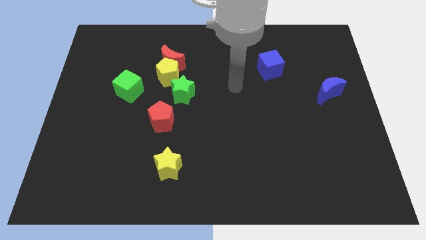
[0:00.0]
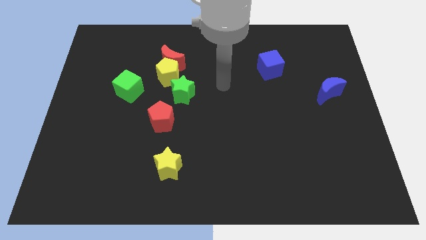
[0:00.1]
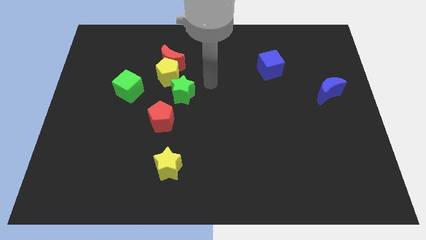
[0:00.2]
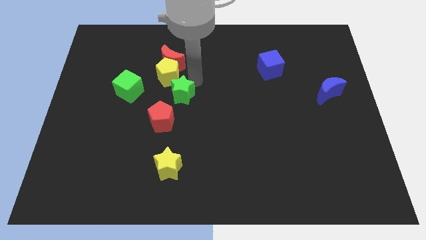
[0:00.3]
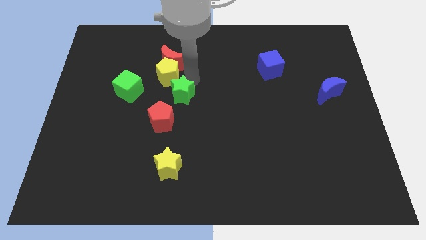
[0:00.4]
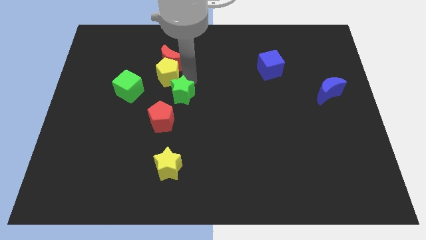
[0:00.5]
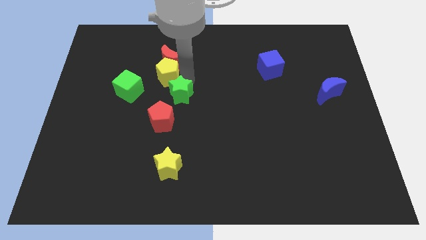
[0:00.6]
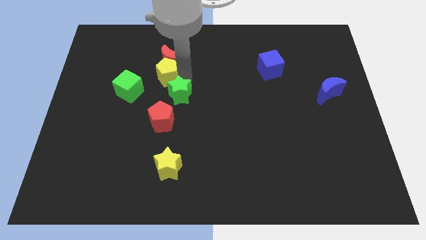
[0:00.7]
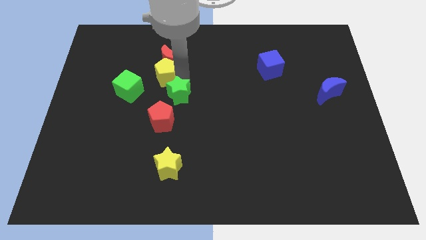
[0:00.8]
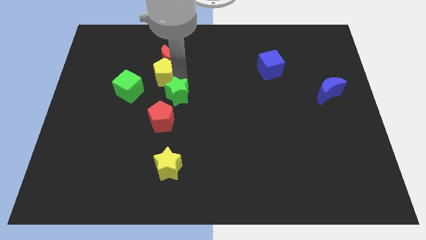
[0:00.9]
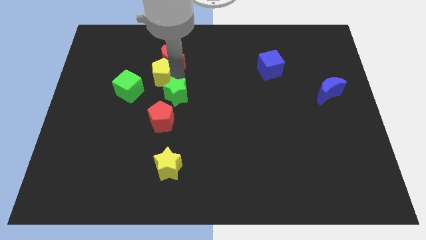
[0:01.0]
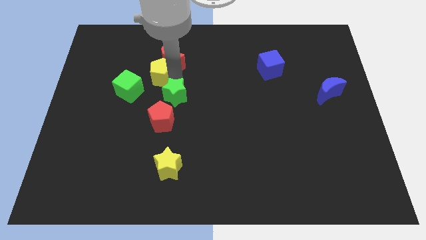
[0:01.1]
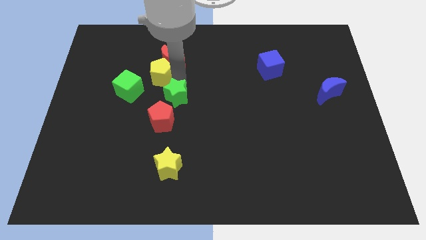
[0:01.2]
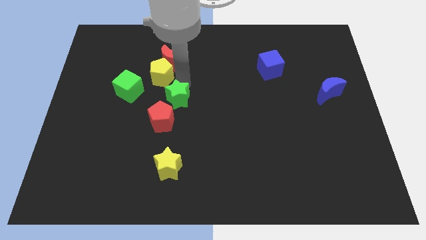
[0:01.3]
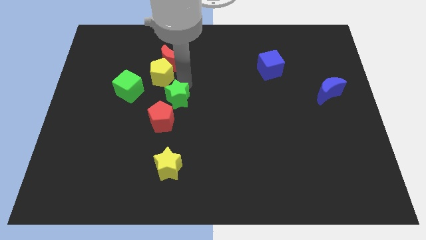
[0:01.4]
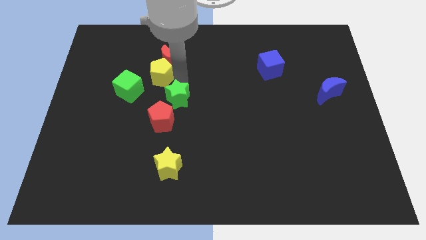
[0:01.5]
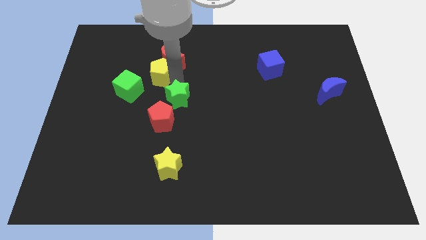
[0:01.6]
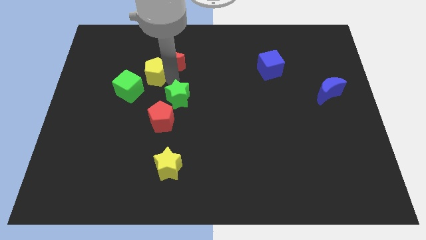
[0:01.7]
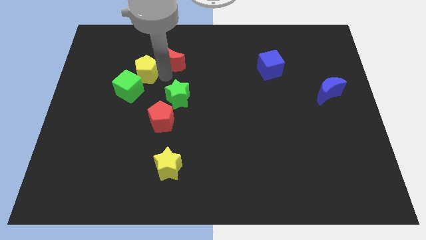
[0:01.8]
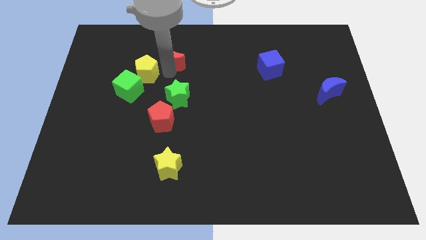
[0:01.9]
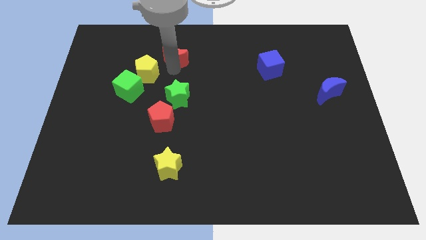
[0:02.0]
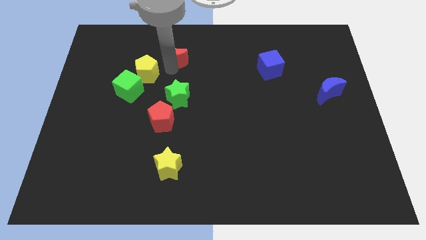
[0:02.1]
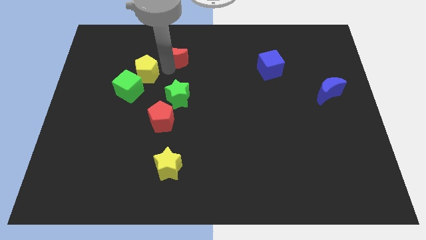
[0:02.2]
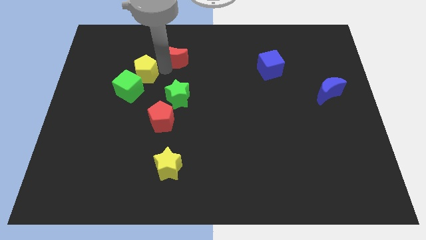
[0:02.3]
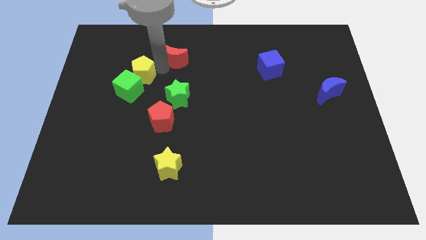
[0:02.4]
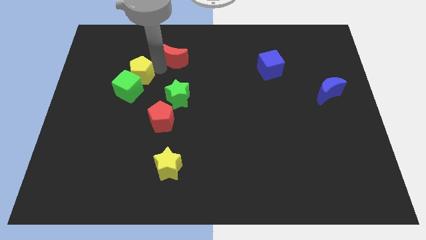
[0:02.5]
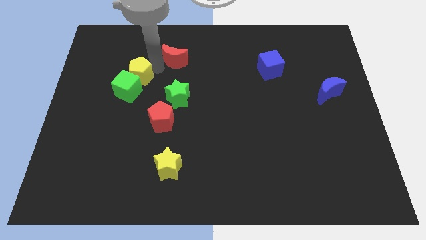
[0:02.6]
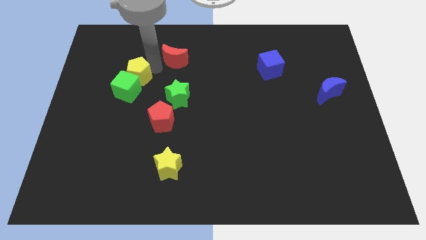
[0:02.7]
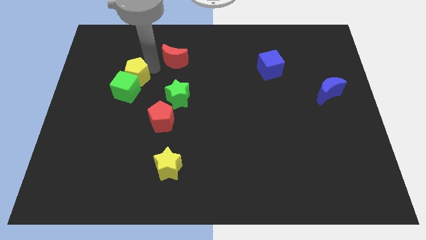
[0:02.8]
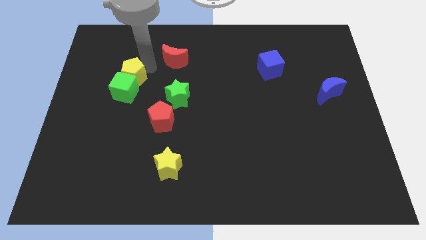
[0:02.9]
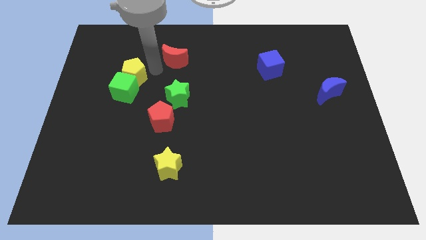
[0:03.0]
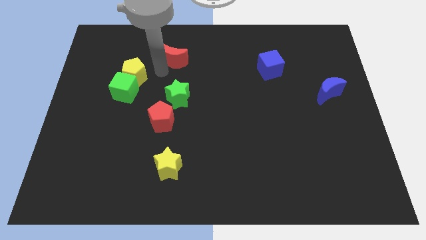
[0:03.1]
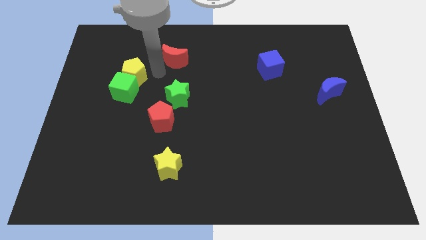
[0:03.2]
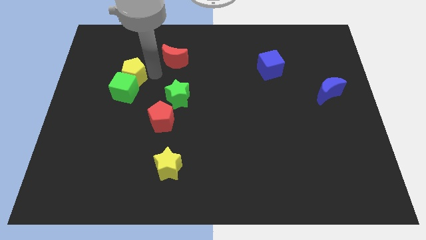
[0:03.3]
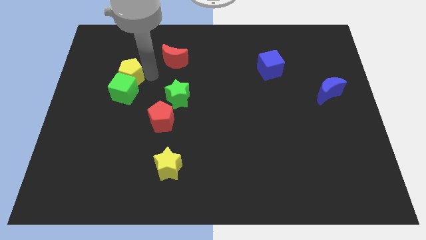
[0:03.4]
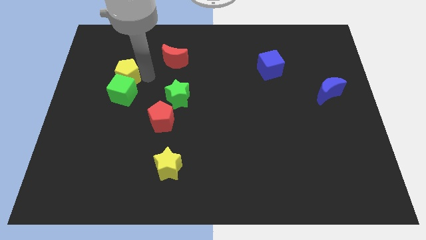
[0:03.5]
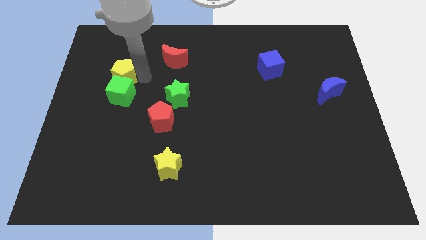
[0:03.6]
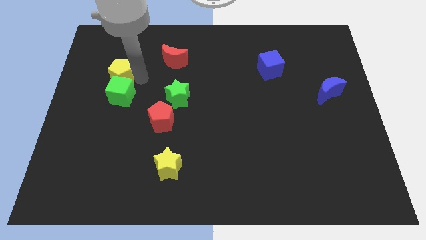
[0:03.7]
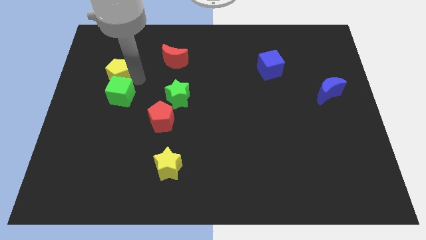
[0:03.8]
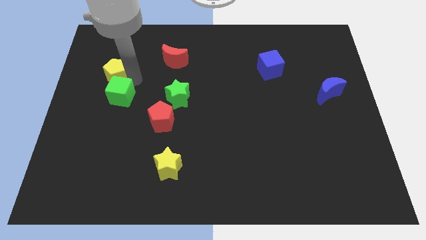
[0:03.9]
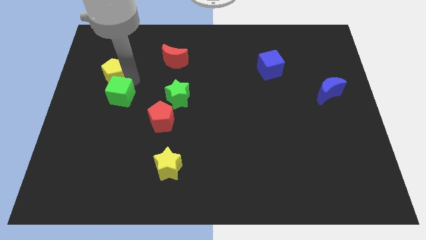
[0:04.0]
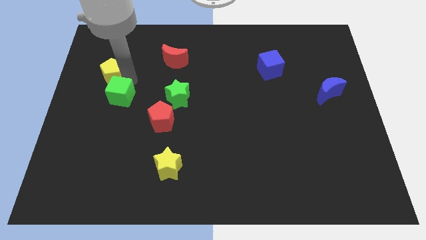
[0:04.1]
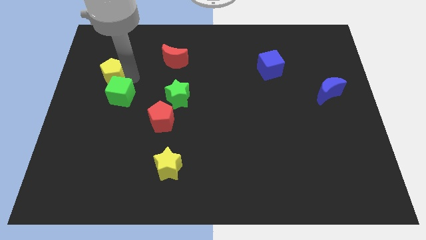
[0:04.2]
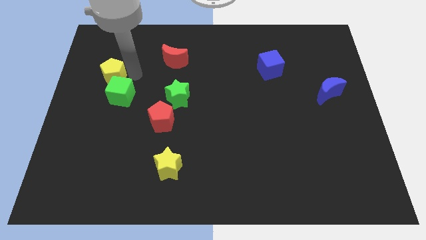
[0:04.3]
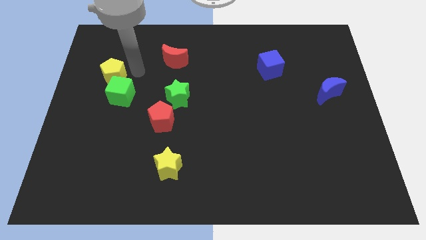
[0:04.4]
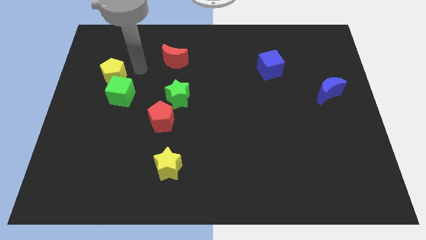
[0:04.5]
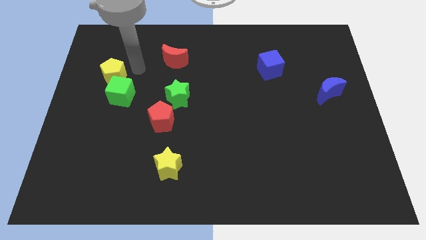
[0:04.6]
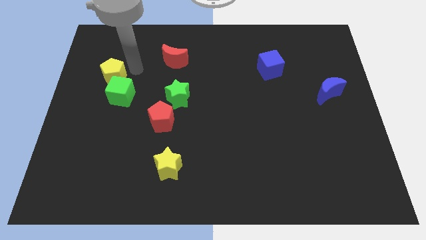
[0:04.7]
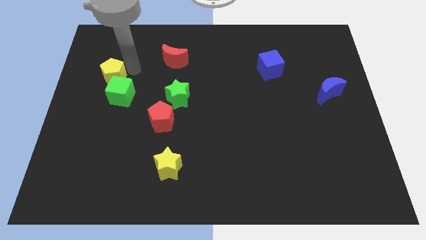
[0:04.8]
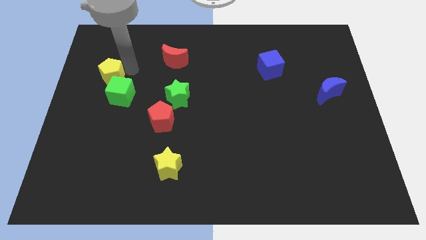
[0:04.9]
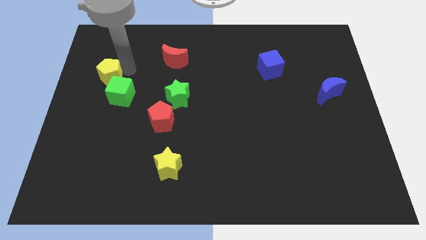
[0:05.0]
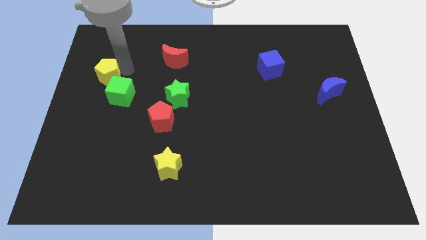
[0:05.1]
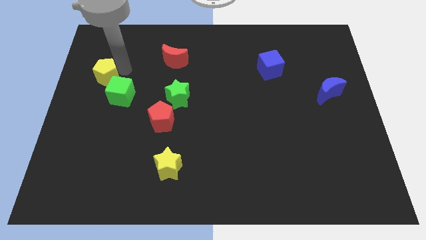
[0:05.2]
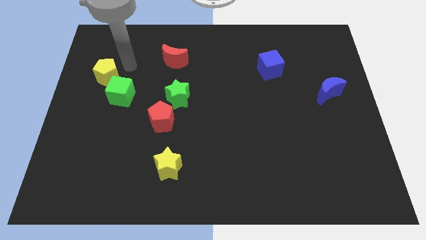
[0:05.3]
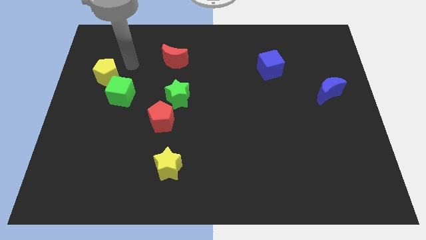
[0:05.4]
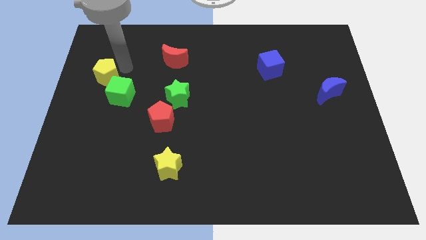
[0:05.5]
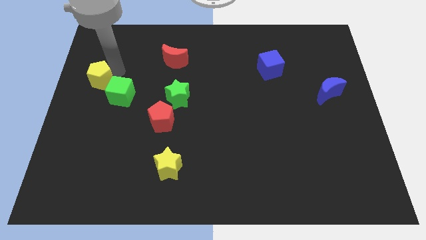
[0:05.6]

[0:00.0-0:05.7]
push the yellow pentagon to the left side

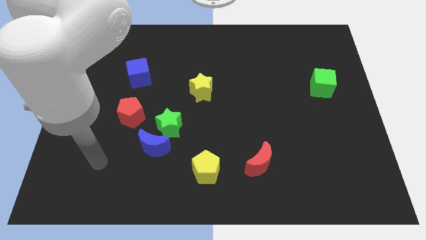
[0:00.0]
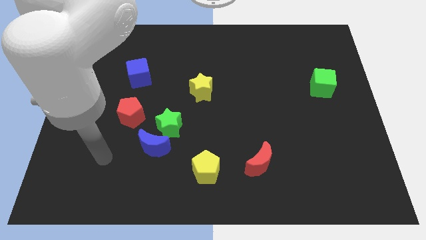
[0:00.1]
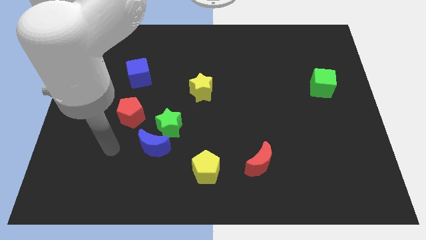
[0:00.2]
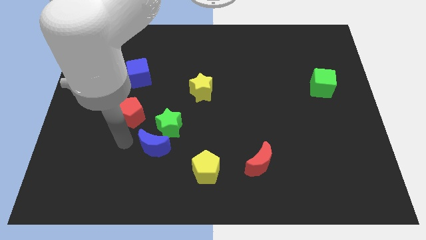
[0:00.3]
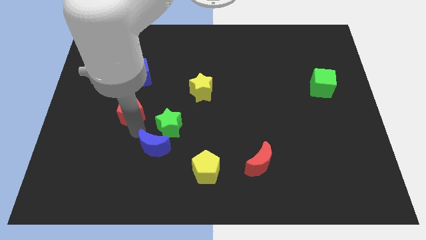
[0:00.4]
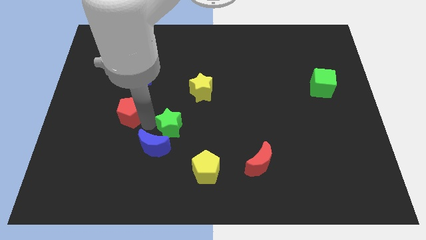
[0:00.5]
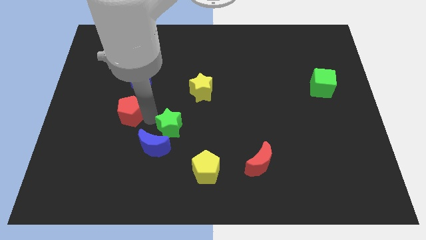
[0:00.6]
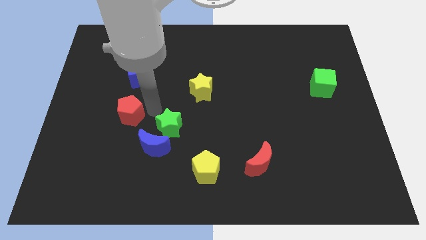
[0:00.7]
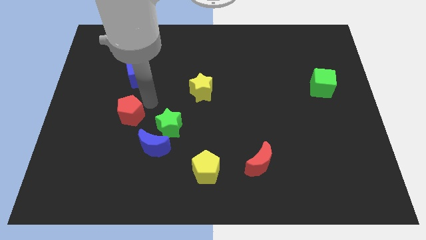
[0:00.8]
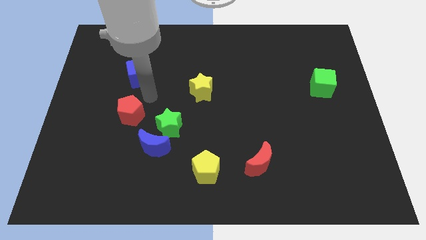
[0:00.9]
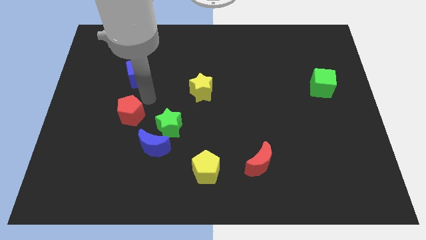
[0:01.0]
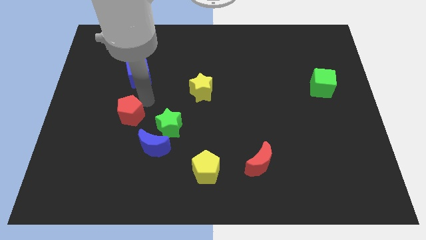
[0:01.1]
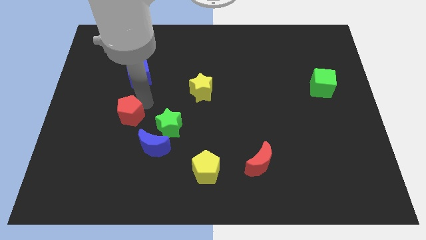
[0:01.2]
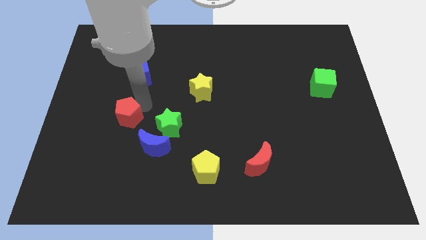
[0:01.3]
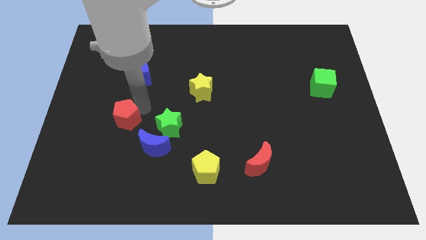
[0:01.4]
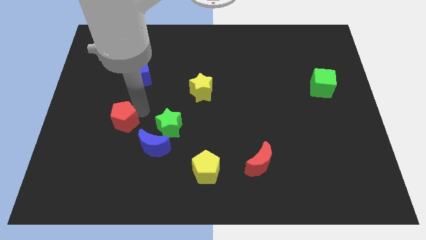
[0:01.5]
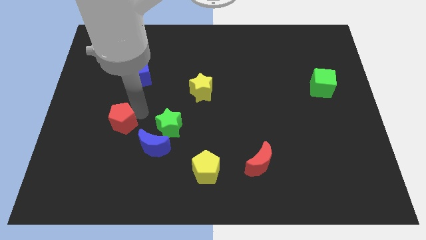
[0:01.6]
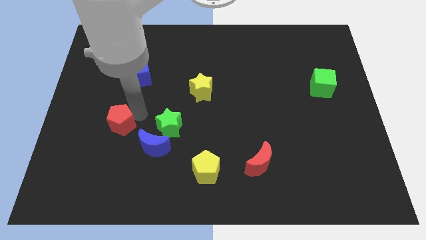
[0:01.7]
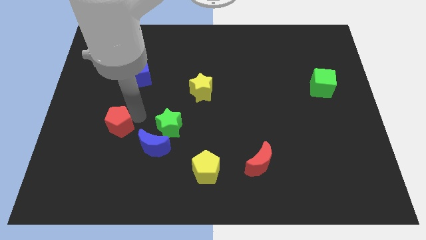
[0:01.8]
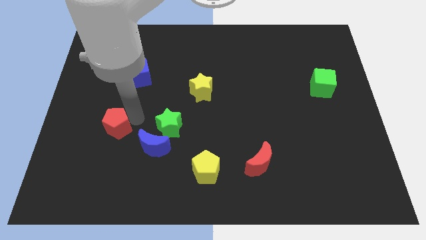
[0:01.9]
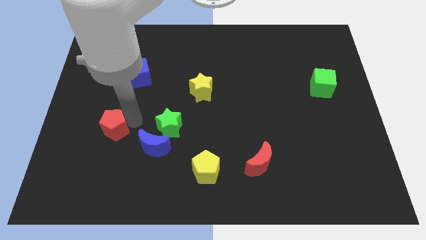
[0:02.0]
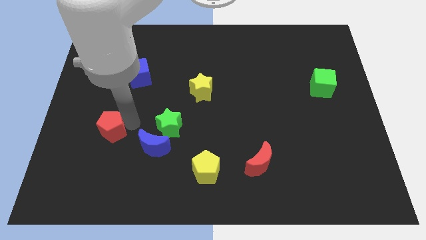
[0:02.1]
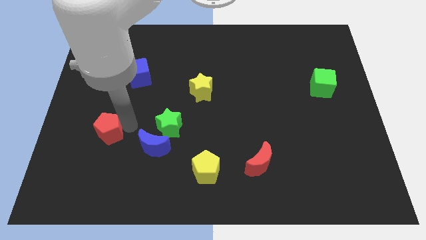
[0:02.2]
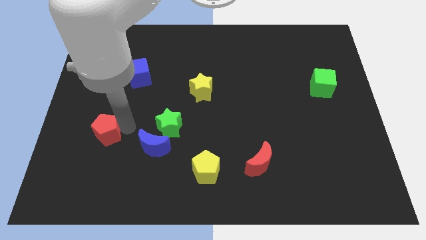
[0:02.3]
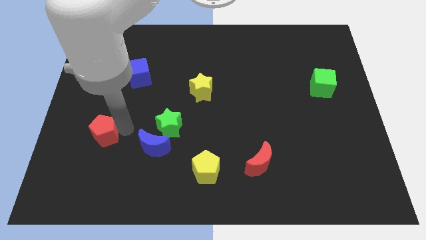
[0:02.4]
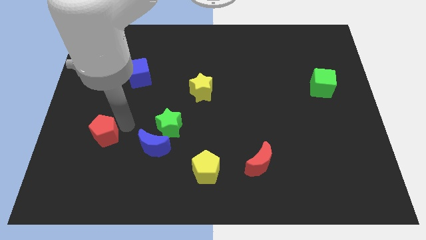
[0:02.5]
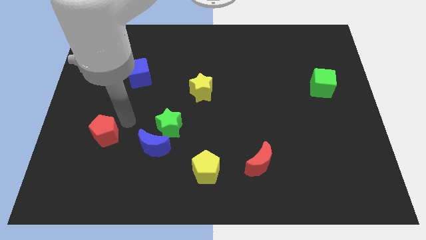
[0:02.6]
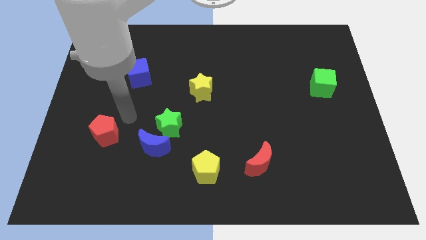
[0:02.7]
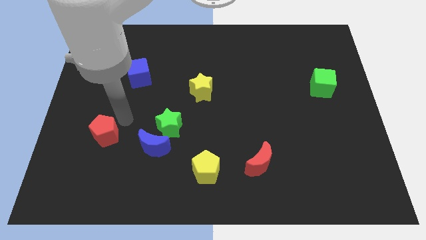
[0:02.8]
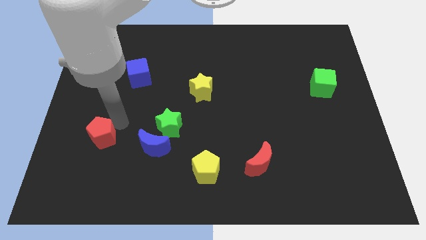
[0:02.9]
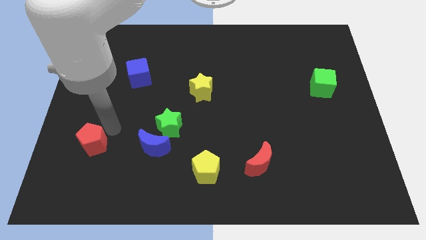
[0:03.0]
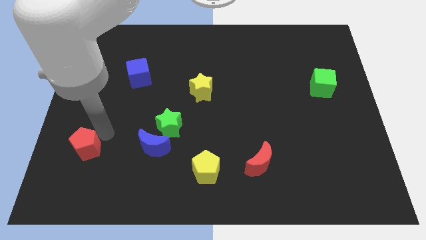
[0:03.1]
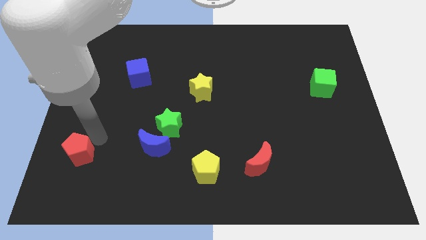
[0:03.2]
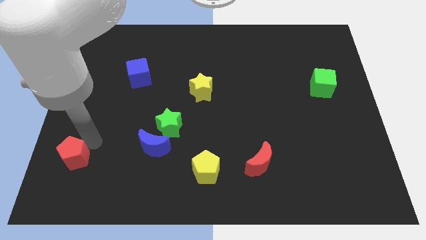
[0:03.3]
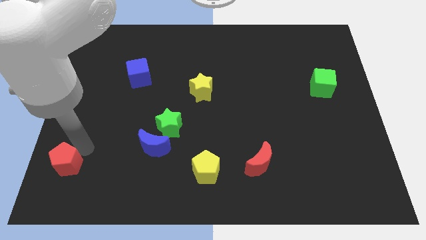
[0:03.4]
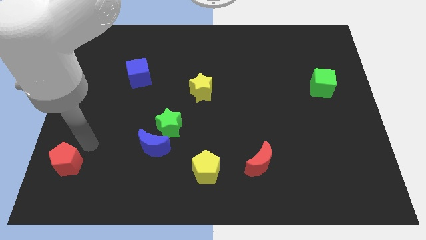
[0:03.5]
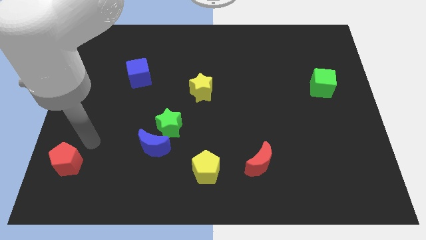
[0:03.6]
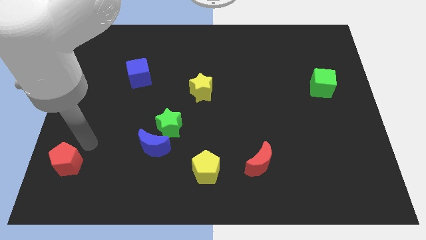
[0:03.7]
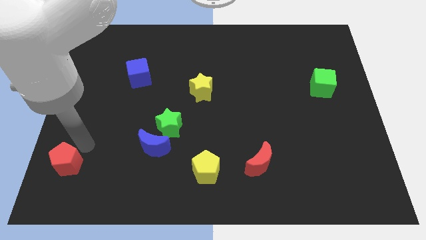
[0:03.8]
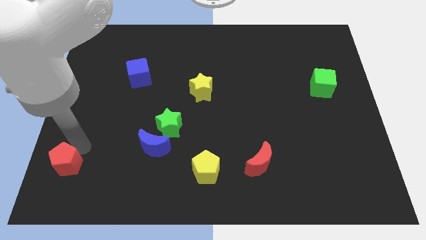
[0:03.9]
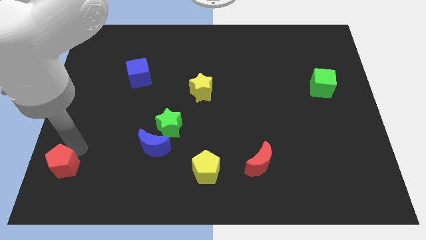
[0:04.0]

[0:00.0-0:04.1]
put the red pentagon to the bottom left of the board
